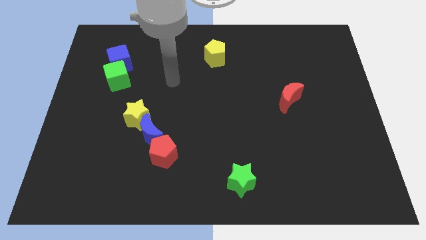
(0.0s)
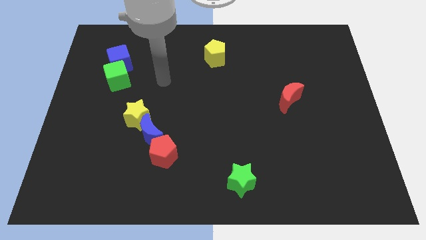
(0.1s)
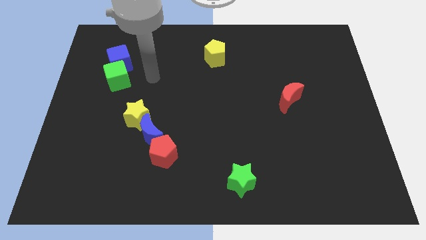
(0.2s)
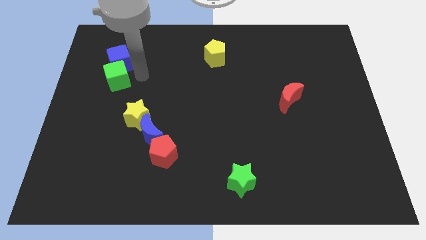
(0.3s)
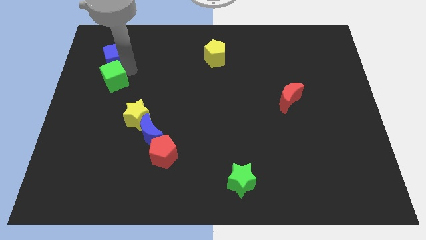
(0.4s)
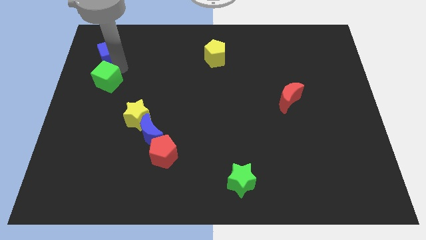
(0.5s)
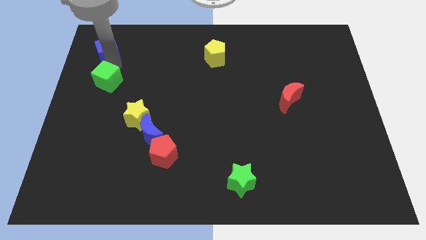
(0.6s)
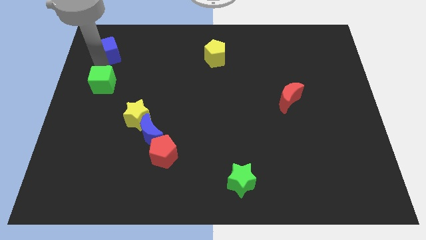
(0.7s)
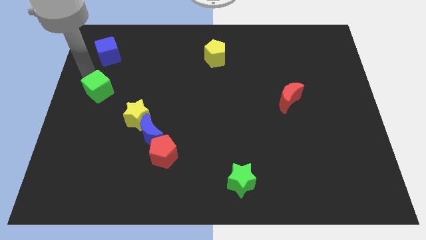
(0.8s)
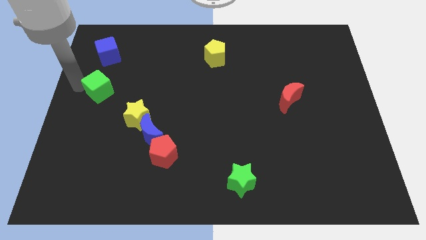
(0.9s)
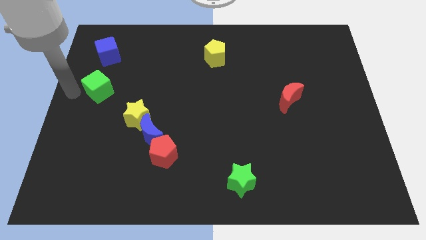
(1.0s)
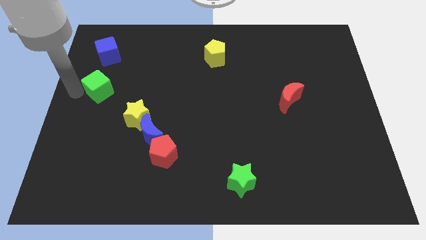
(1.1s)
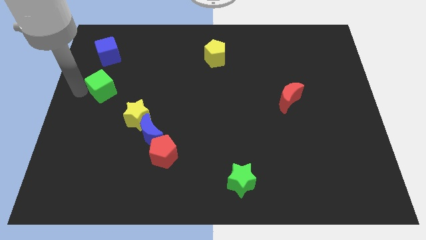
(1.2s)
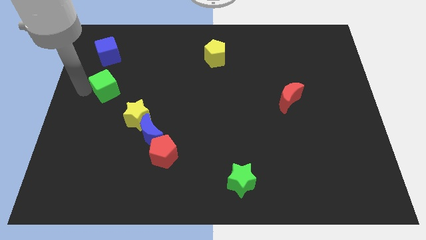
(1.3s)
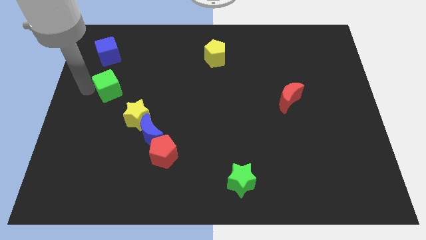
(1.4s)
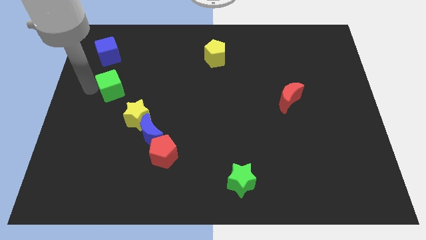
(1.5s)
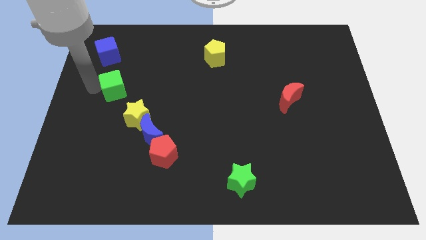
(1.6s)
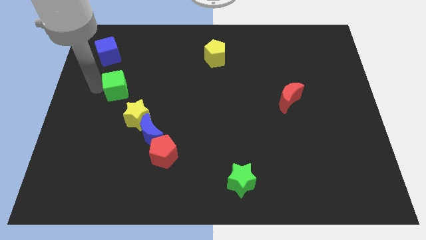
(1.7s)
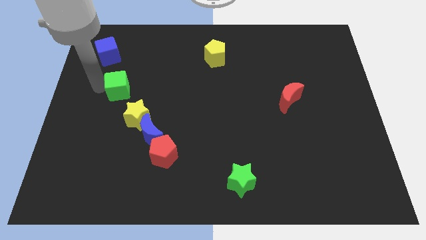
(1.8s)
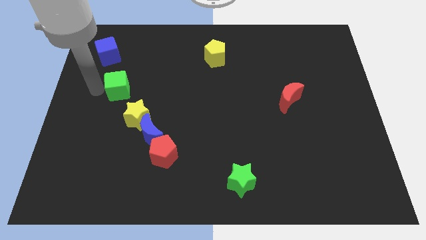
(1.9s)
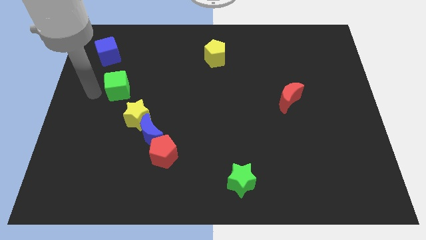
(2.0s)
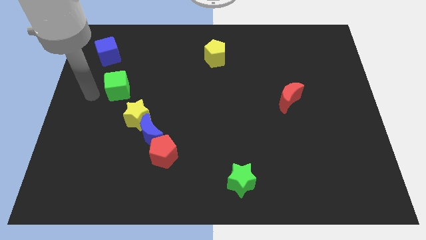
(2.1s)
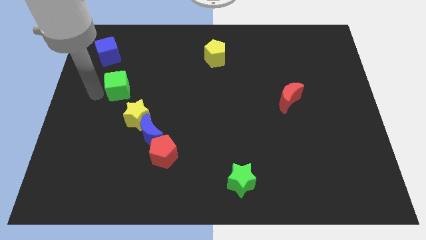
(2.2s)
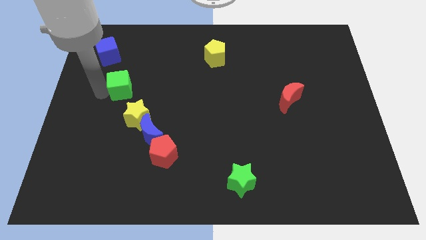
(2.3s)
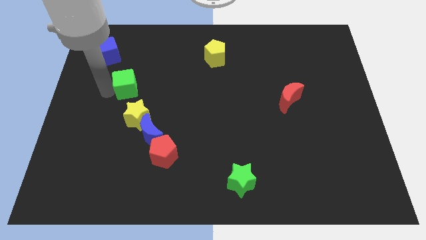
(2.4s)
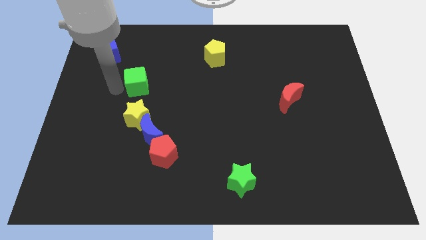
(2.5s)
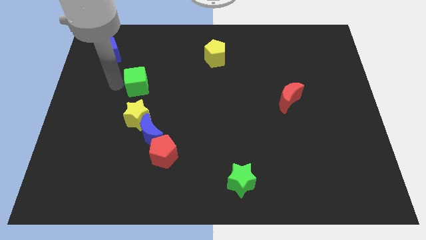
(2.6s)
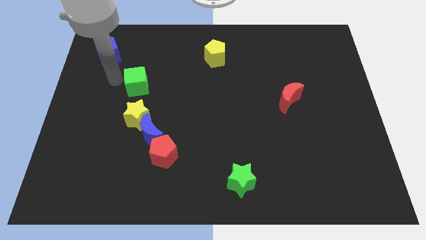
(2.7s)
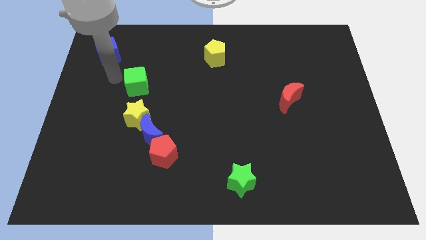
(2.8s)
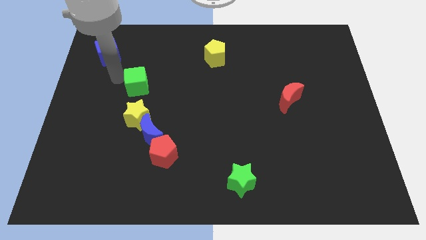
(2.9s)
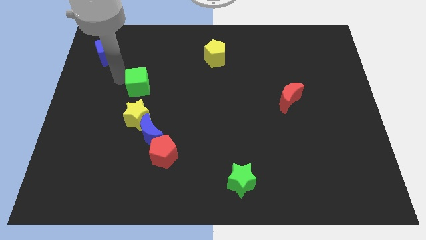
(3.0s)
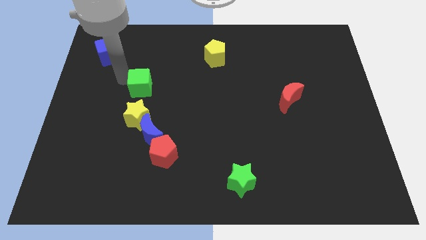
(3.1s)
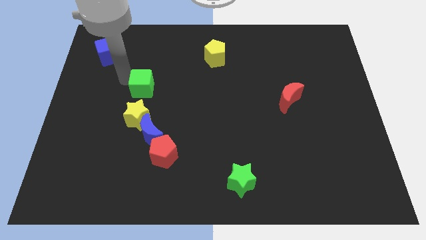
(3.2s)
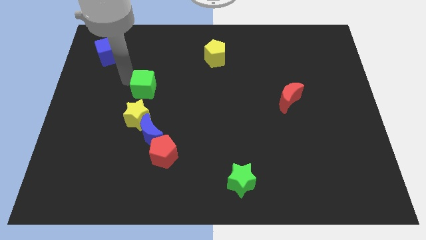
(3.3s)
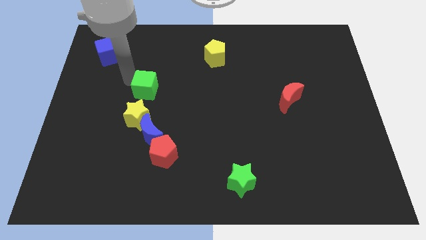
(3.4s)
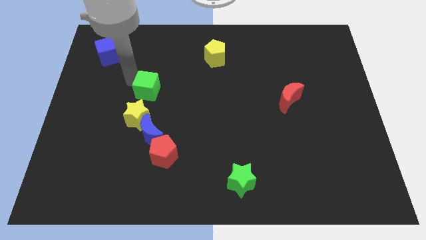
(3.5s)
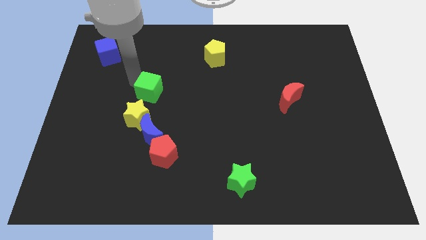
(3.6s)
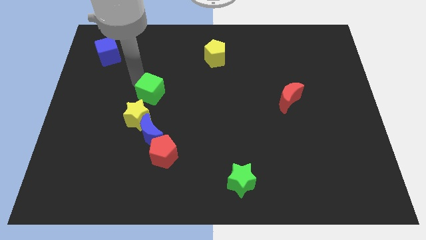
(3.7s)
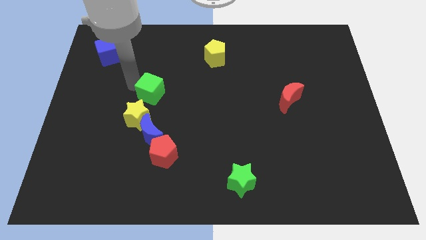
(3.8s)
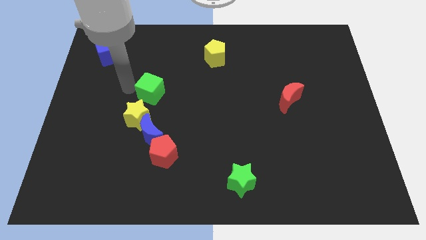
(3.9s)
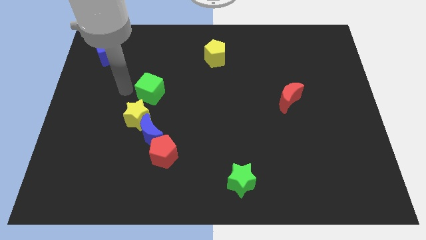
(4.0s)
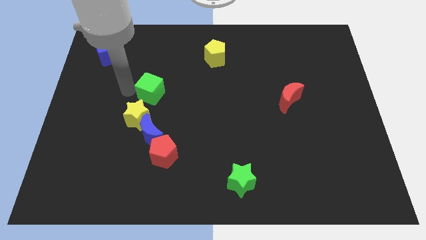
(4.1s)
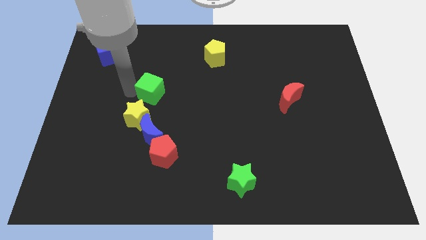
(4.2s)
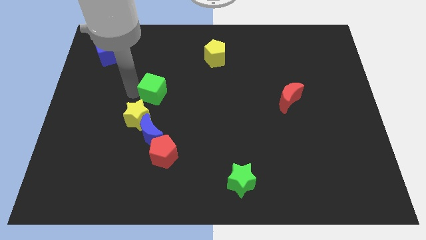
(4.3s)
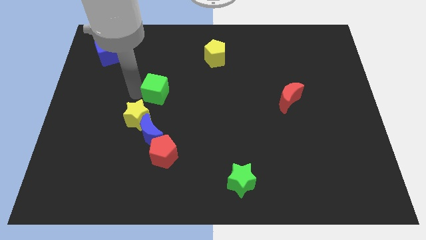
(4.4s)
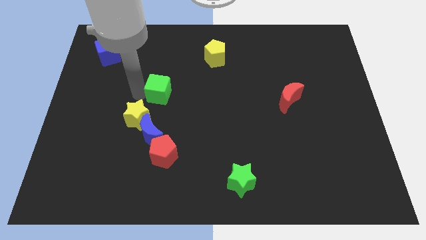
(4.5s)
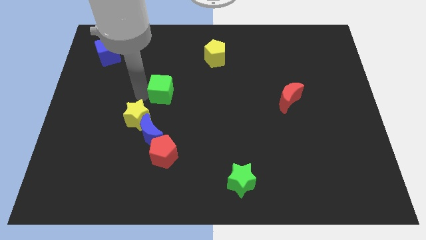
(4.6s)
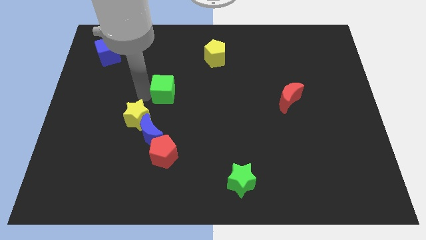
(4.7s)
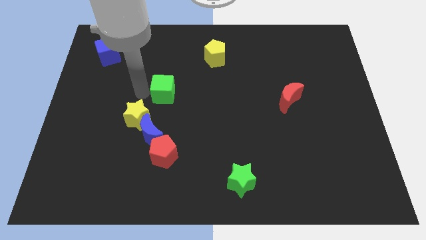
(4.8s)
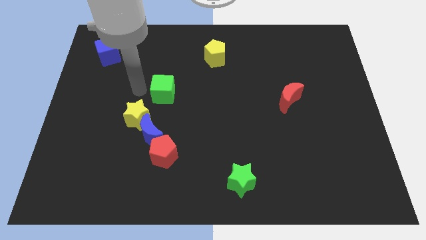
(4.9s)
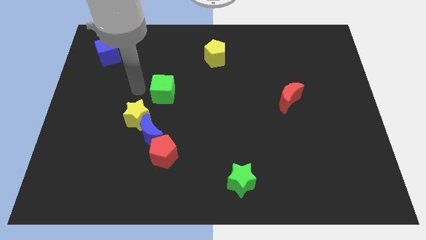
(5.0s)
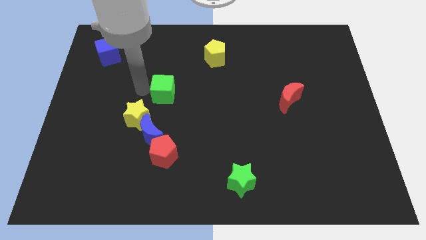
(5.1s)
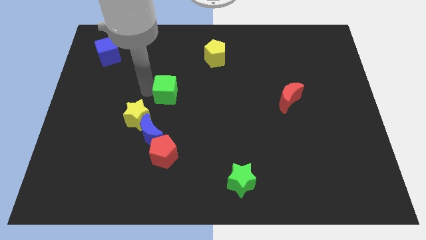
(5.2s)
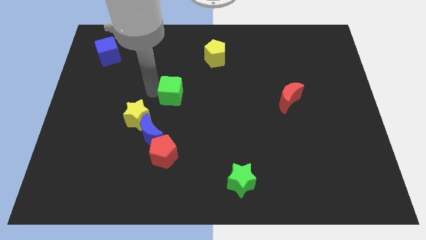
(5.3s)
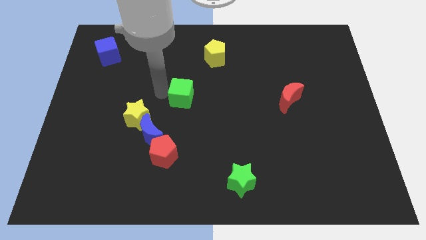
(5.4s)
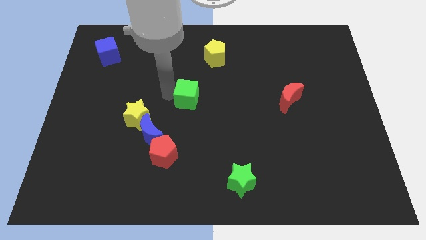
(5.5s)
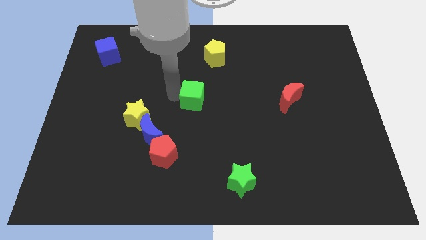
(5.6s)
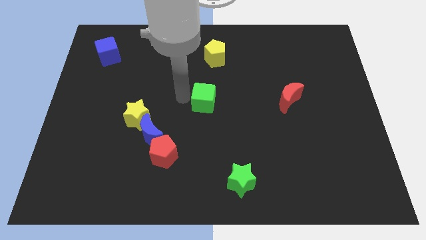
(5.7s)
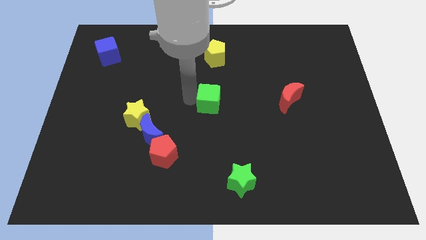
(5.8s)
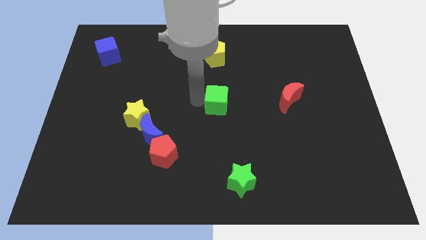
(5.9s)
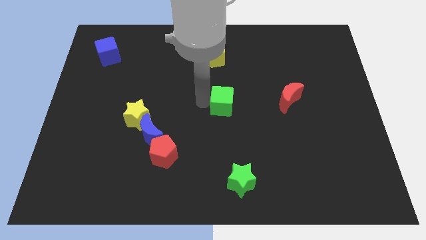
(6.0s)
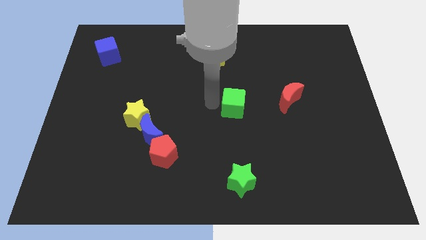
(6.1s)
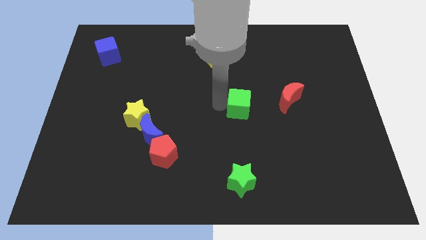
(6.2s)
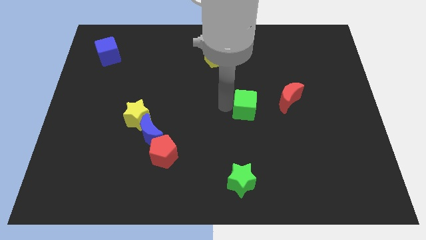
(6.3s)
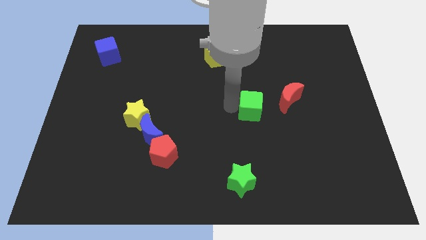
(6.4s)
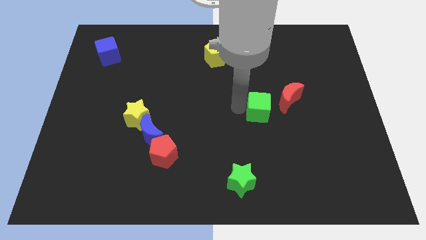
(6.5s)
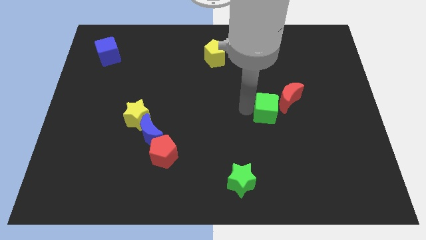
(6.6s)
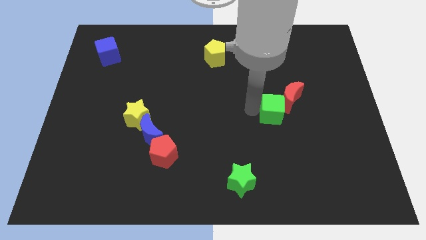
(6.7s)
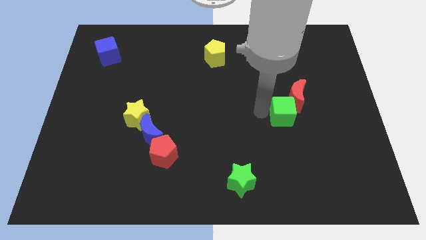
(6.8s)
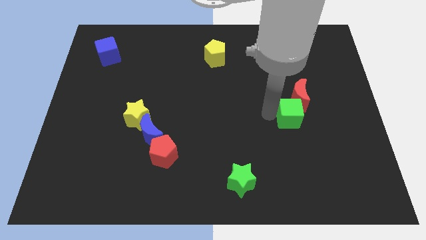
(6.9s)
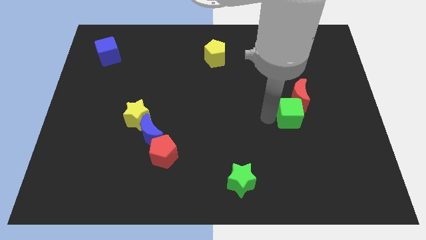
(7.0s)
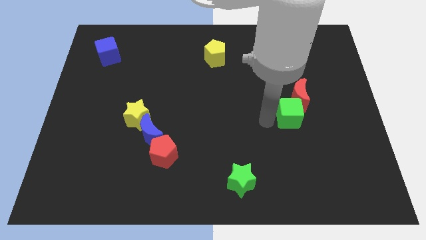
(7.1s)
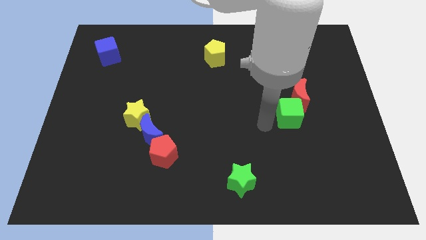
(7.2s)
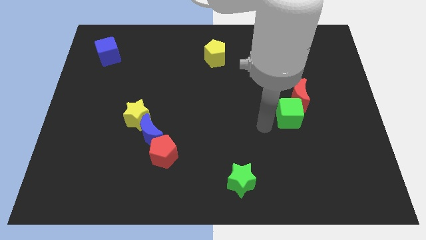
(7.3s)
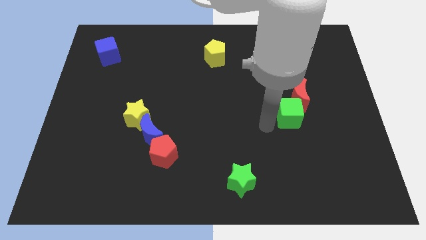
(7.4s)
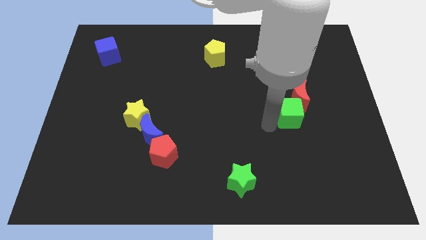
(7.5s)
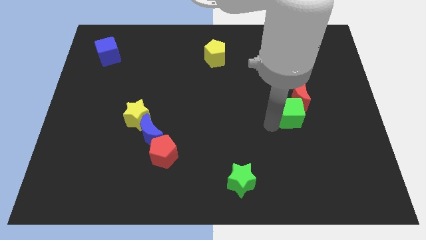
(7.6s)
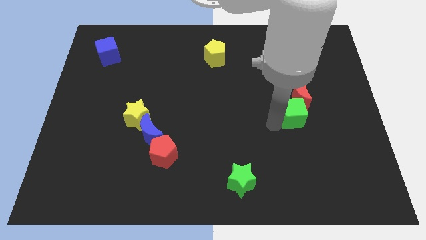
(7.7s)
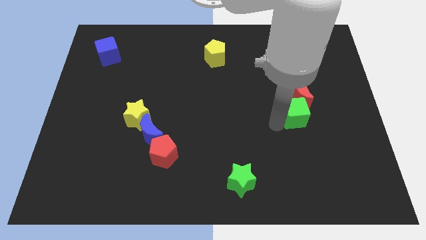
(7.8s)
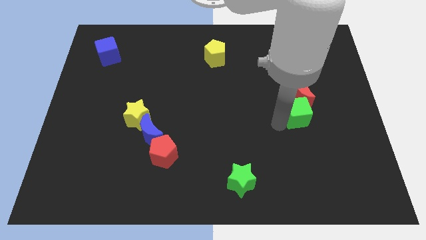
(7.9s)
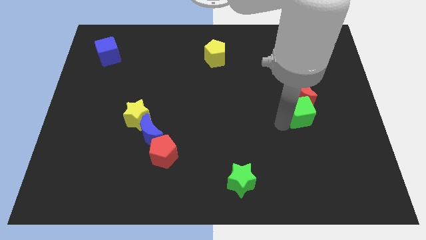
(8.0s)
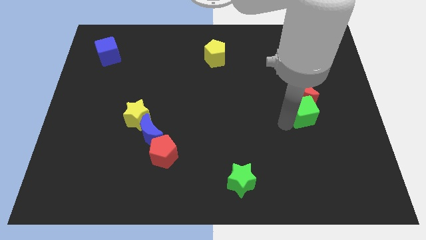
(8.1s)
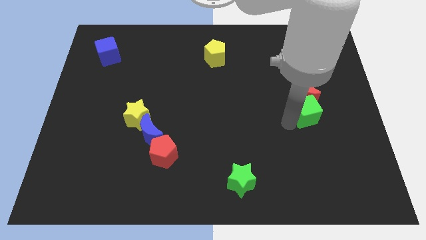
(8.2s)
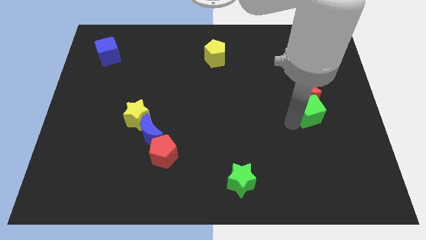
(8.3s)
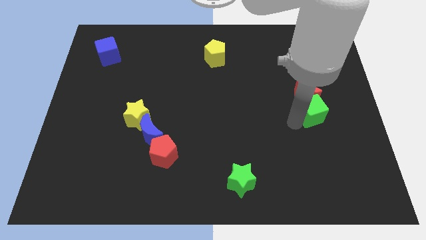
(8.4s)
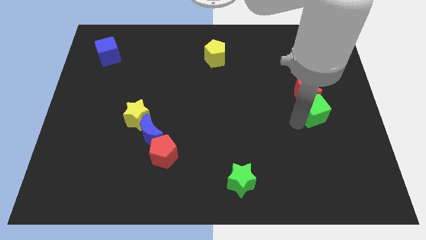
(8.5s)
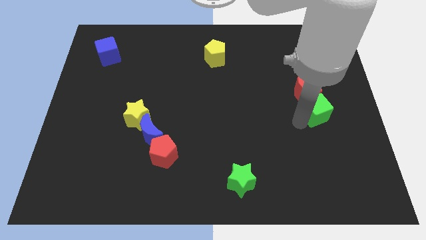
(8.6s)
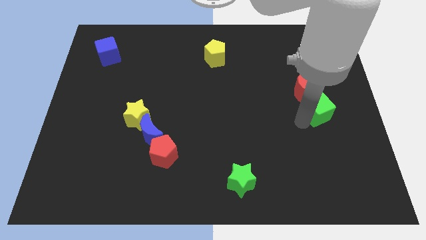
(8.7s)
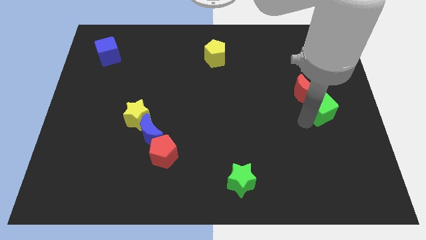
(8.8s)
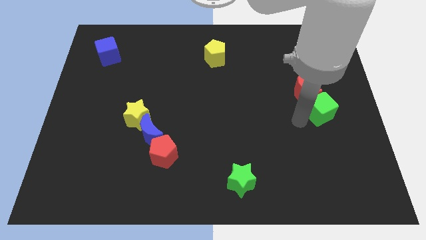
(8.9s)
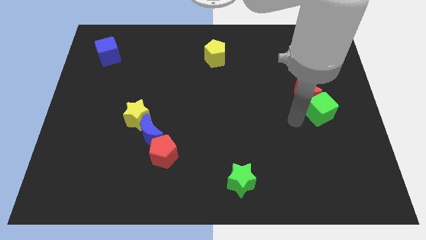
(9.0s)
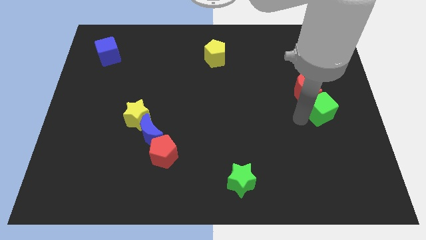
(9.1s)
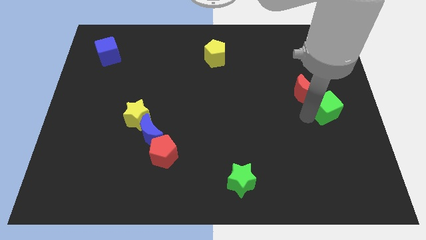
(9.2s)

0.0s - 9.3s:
push the green cube to the right side
